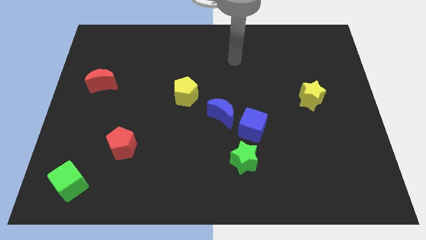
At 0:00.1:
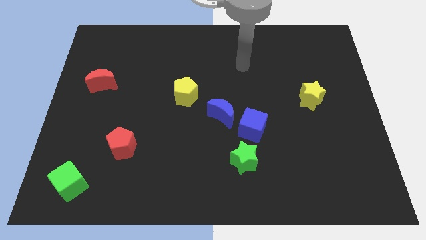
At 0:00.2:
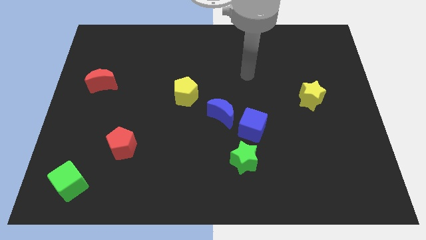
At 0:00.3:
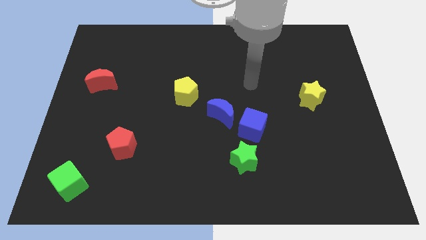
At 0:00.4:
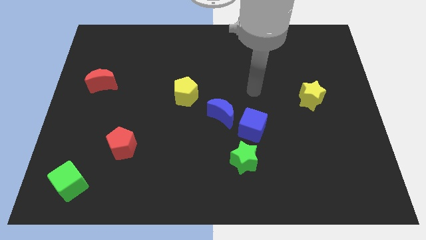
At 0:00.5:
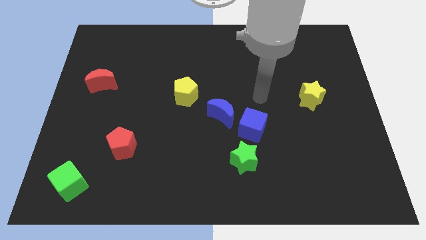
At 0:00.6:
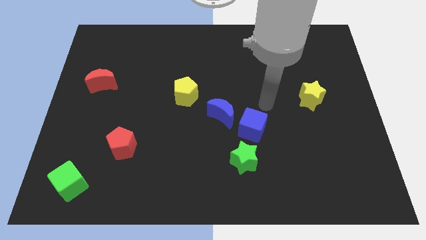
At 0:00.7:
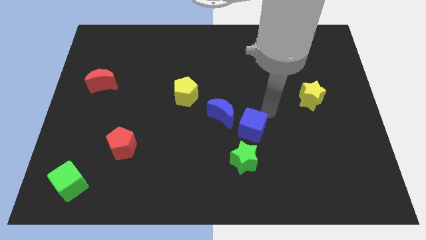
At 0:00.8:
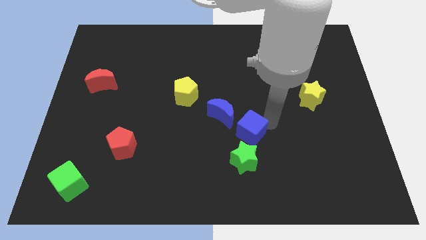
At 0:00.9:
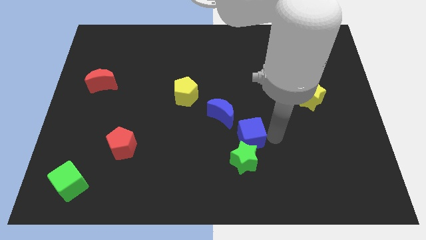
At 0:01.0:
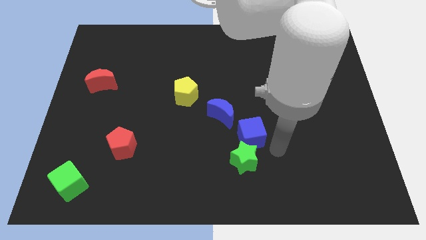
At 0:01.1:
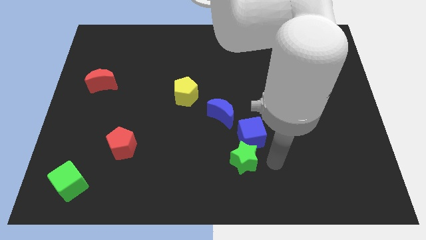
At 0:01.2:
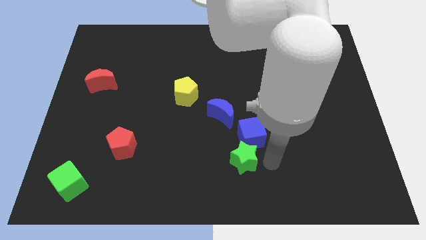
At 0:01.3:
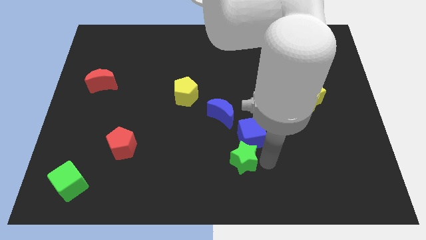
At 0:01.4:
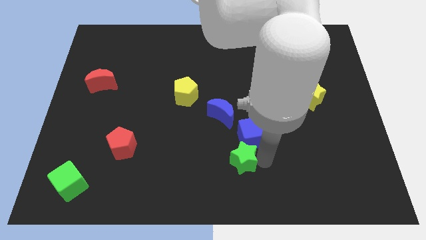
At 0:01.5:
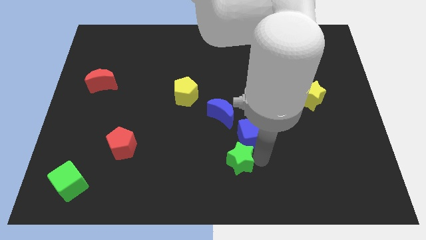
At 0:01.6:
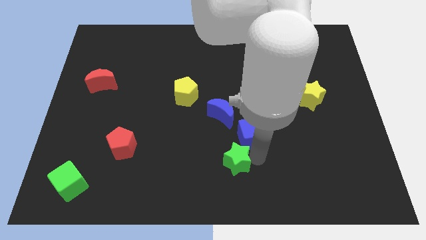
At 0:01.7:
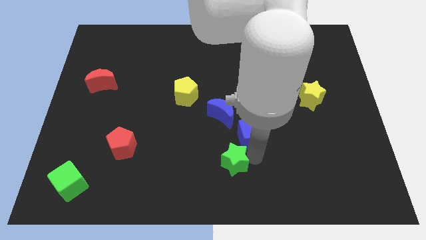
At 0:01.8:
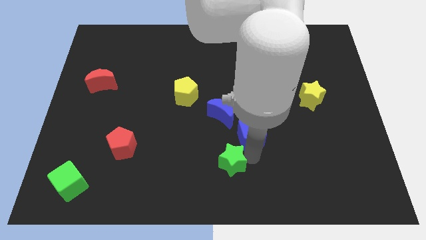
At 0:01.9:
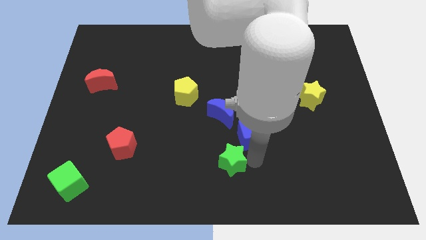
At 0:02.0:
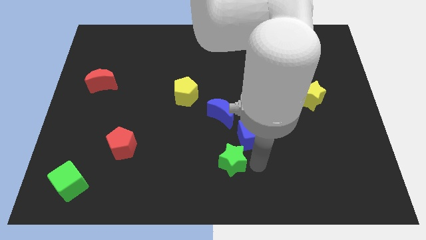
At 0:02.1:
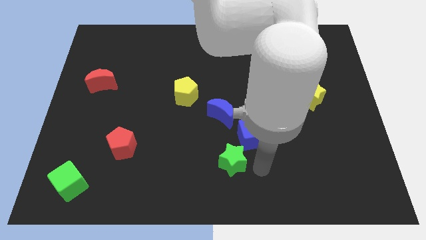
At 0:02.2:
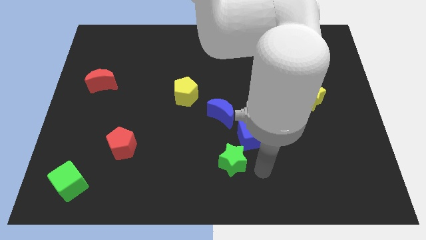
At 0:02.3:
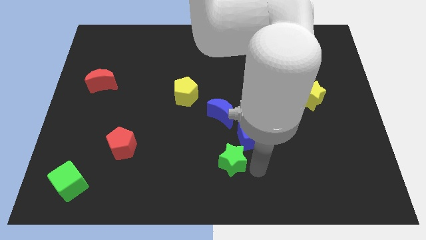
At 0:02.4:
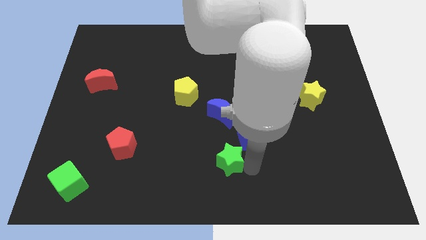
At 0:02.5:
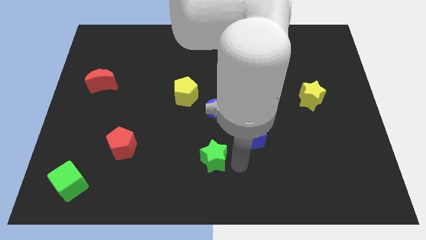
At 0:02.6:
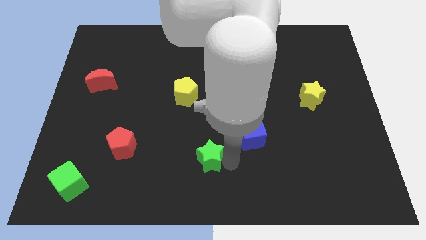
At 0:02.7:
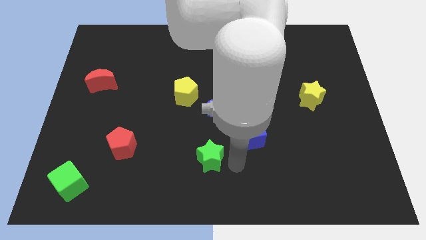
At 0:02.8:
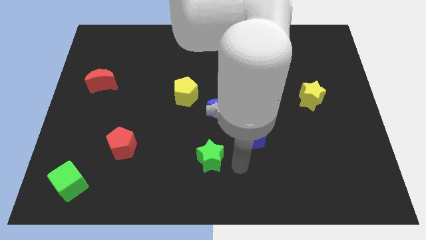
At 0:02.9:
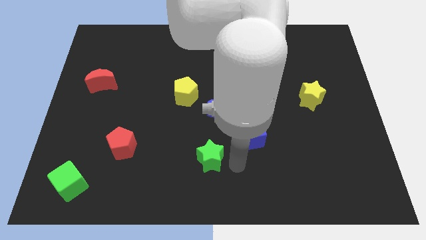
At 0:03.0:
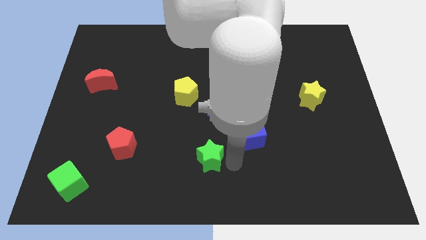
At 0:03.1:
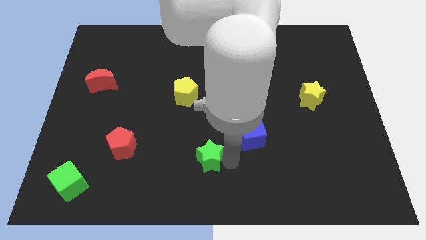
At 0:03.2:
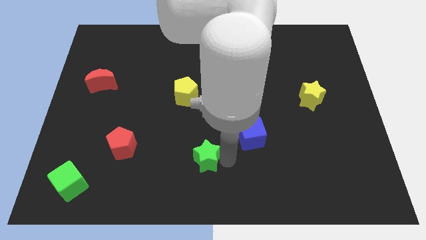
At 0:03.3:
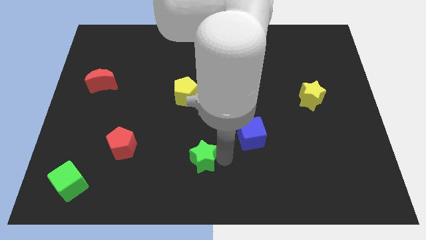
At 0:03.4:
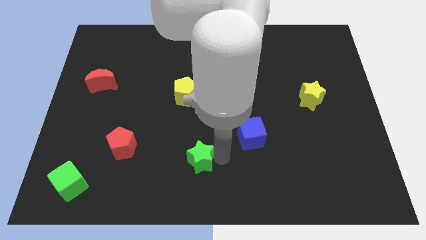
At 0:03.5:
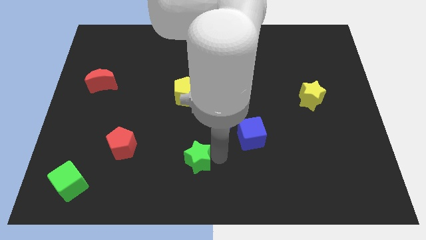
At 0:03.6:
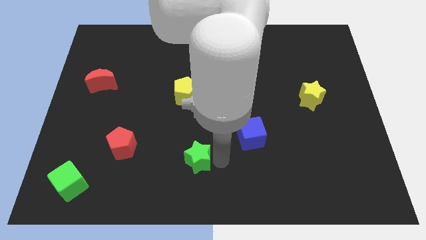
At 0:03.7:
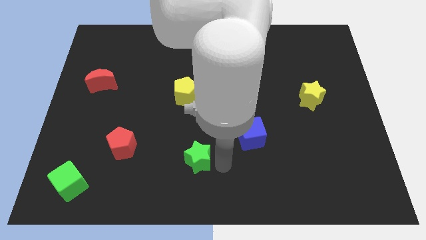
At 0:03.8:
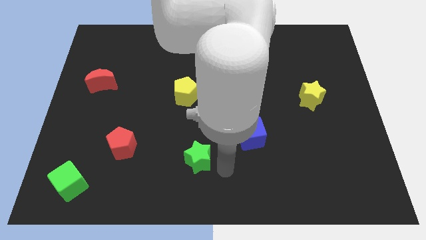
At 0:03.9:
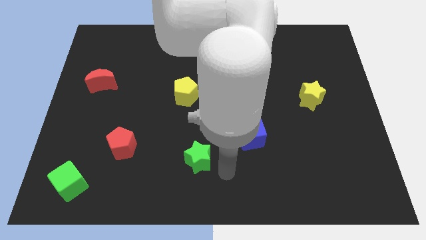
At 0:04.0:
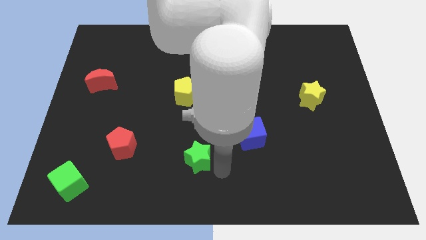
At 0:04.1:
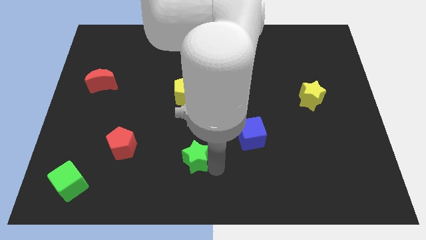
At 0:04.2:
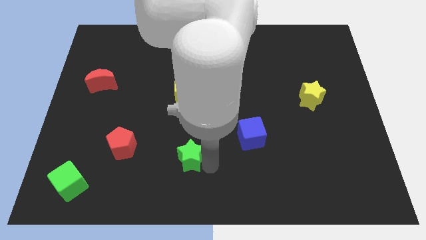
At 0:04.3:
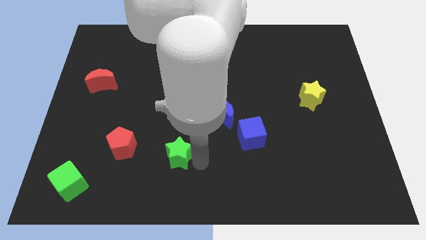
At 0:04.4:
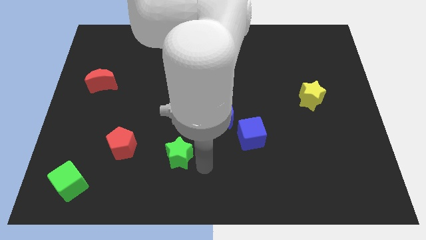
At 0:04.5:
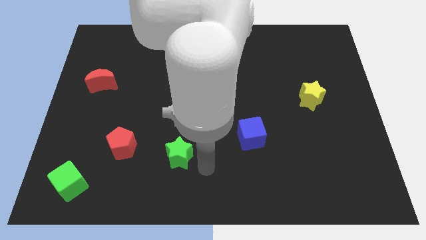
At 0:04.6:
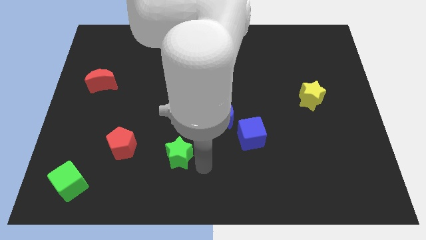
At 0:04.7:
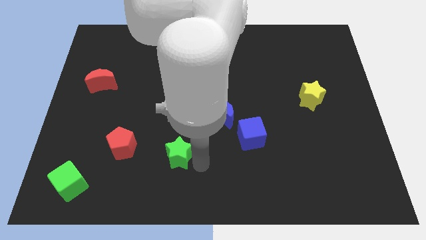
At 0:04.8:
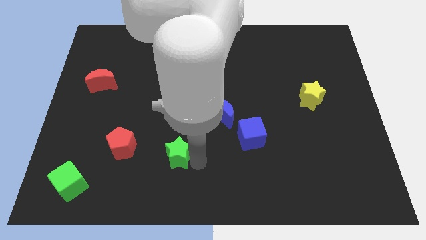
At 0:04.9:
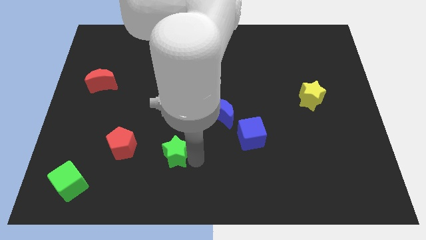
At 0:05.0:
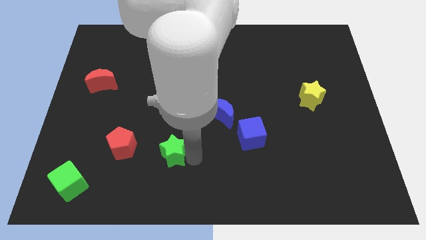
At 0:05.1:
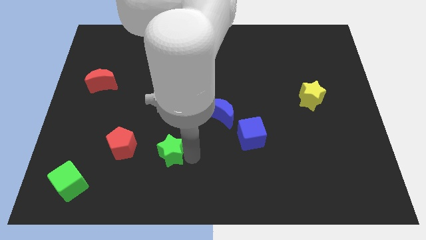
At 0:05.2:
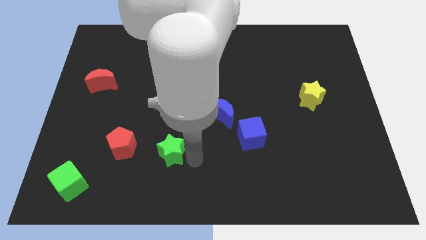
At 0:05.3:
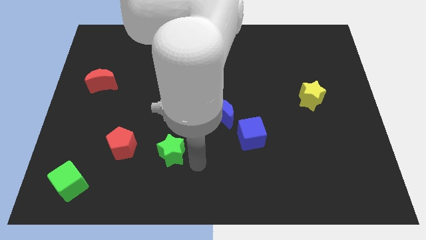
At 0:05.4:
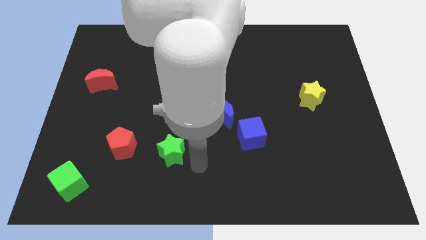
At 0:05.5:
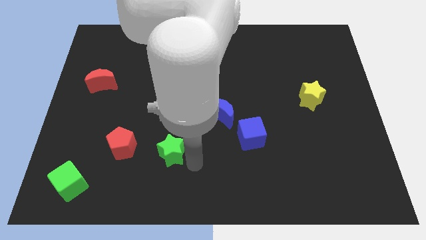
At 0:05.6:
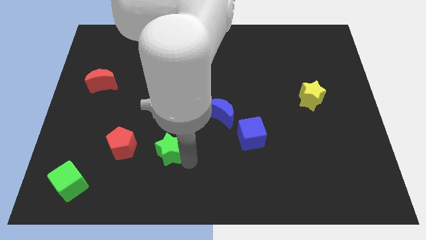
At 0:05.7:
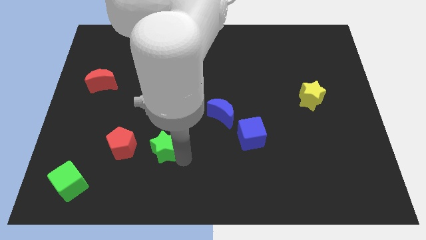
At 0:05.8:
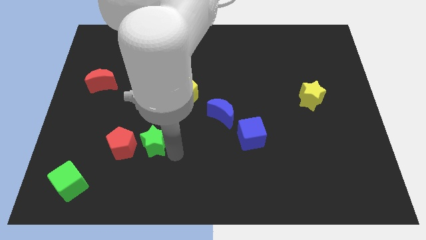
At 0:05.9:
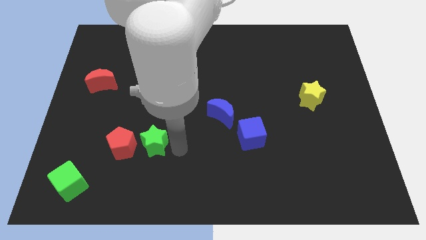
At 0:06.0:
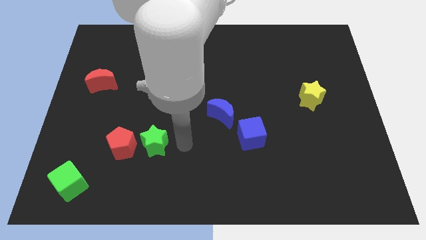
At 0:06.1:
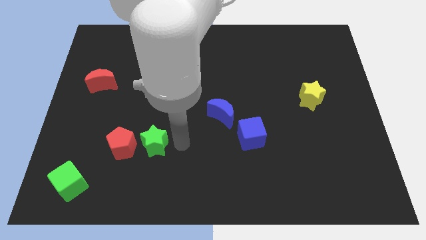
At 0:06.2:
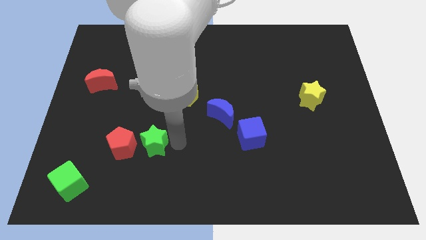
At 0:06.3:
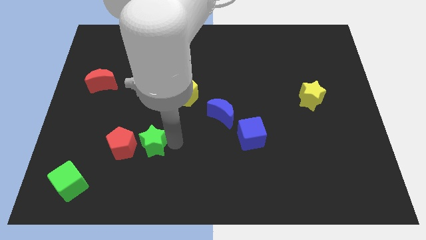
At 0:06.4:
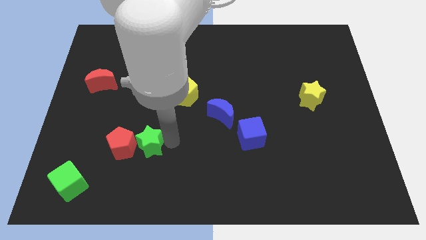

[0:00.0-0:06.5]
slide the green star to the red pentagon

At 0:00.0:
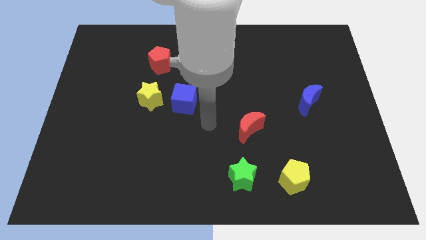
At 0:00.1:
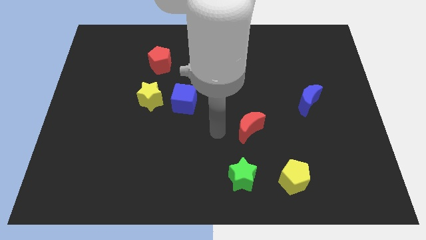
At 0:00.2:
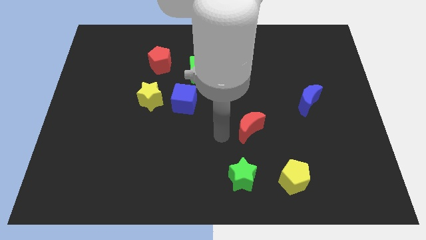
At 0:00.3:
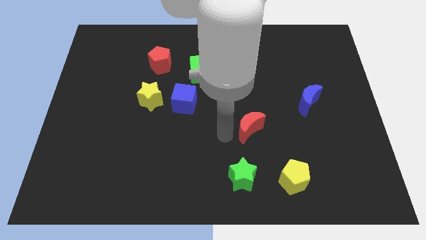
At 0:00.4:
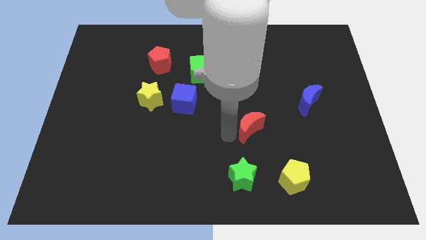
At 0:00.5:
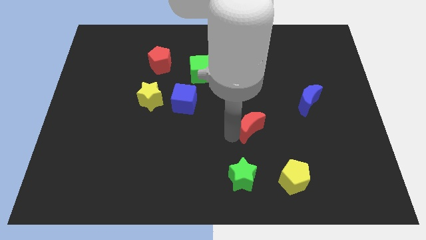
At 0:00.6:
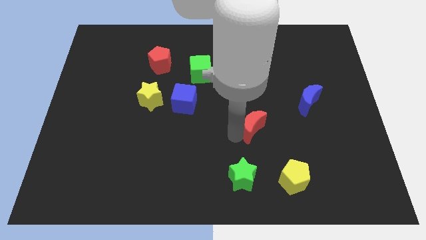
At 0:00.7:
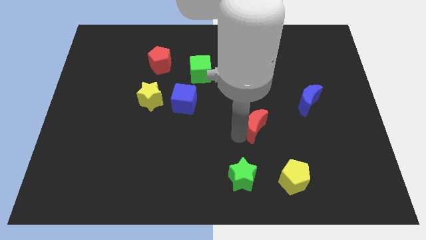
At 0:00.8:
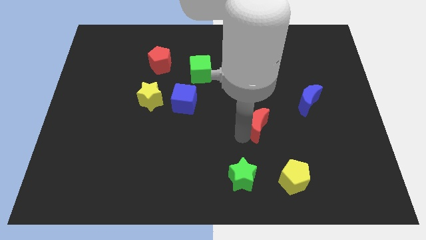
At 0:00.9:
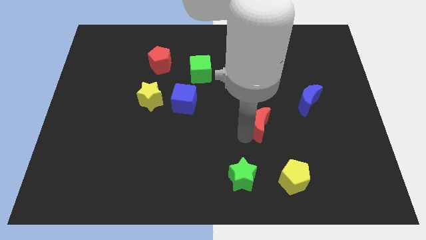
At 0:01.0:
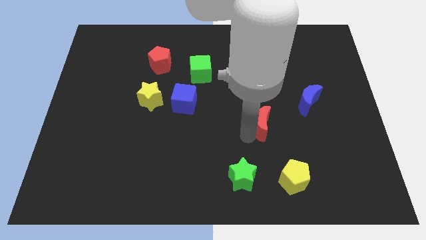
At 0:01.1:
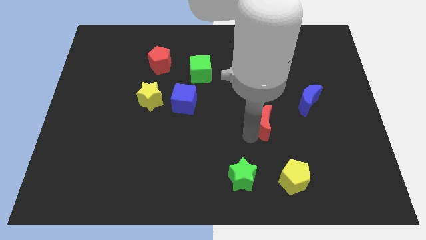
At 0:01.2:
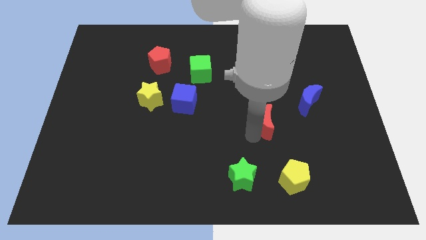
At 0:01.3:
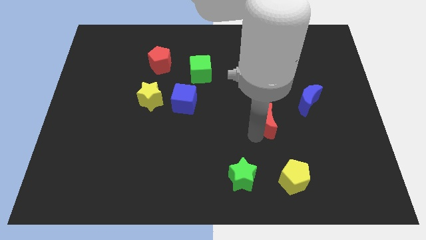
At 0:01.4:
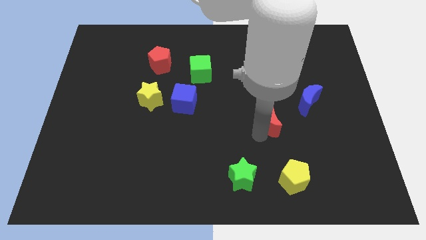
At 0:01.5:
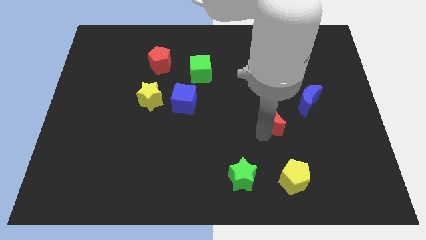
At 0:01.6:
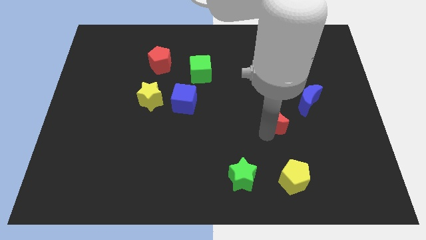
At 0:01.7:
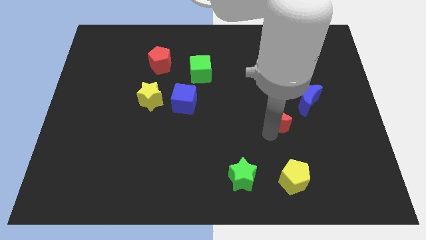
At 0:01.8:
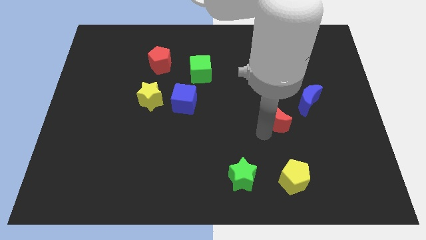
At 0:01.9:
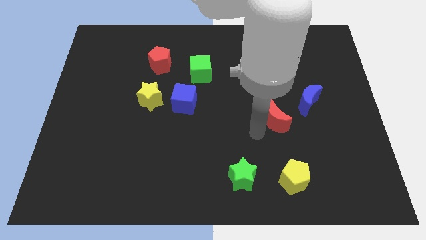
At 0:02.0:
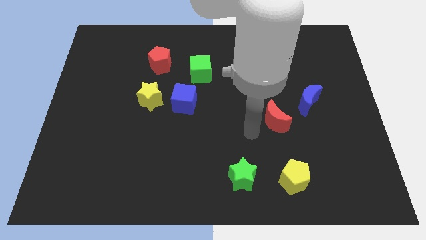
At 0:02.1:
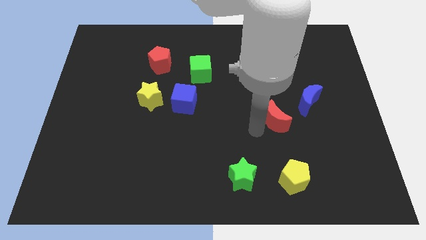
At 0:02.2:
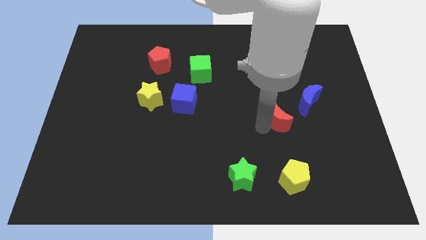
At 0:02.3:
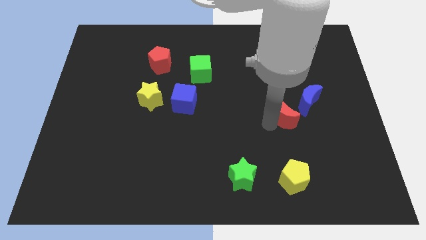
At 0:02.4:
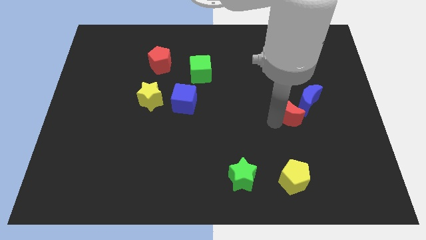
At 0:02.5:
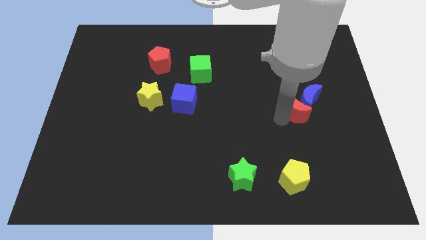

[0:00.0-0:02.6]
slide the red moon next to the blue moon
